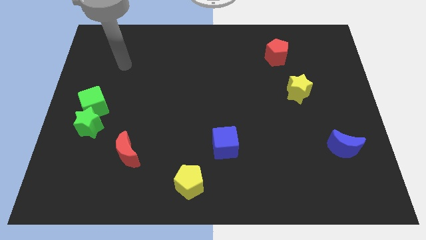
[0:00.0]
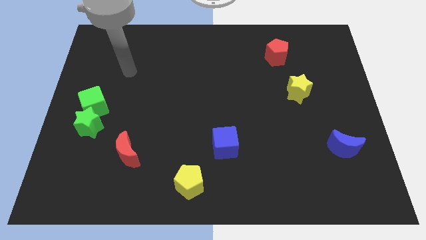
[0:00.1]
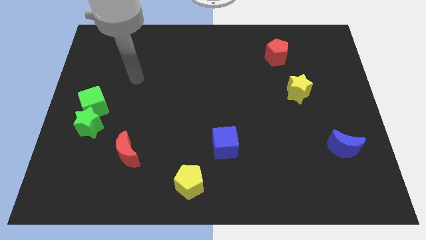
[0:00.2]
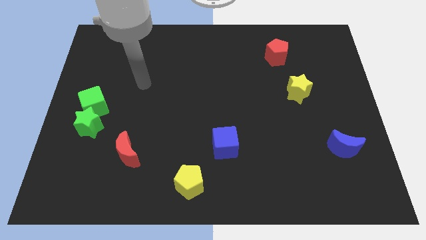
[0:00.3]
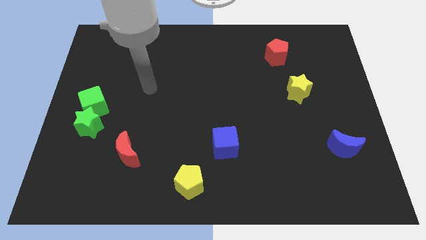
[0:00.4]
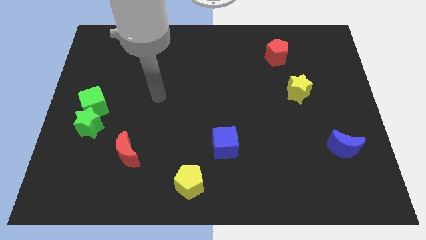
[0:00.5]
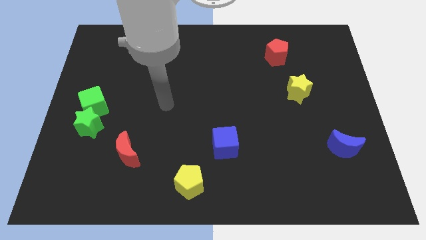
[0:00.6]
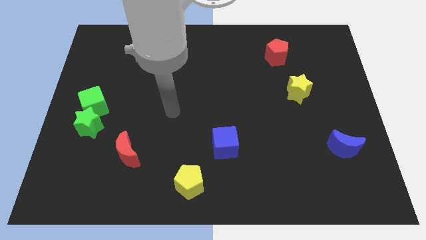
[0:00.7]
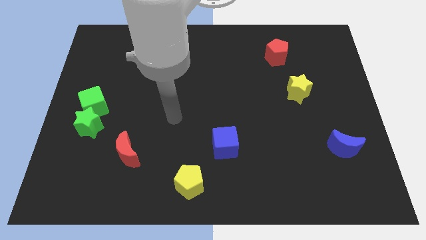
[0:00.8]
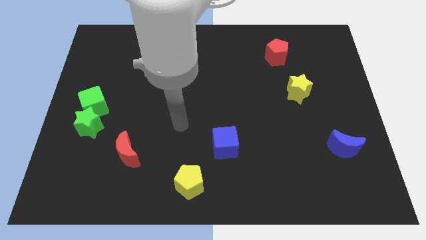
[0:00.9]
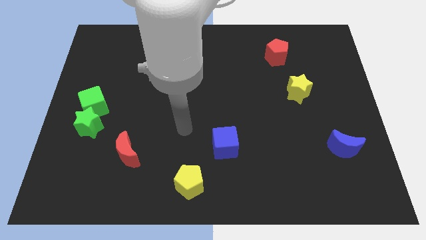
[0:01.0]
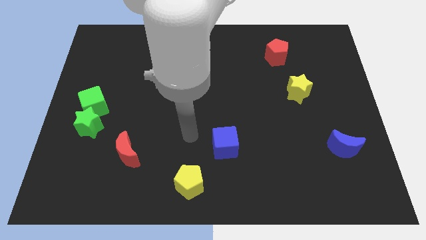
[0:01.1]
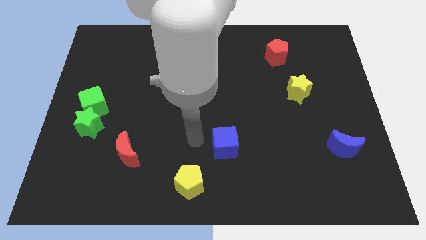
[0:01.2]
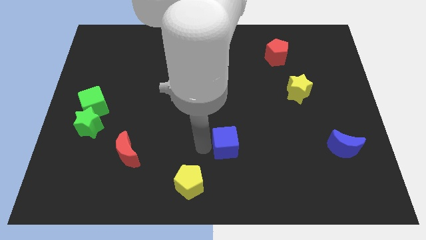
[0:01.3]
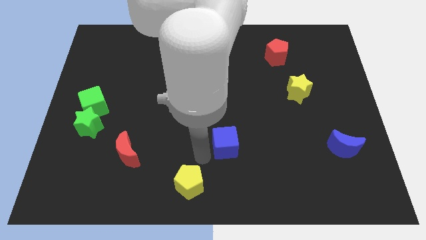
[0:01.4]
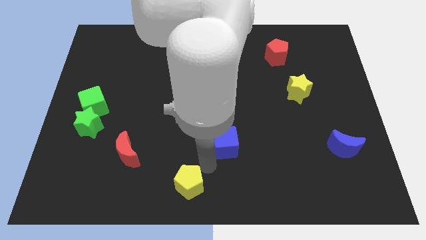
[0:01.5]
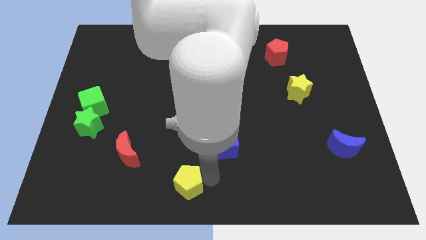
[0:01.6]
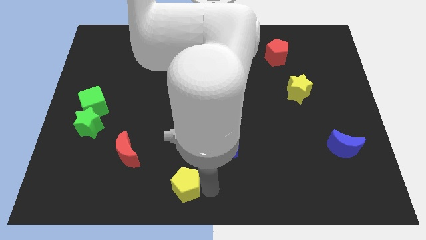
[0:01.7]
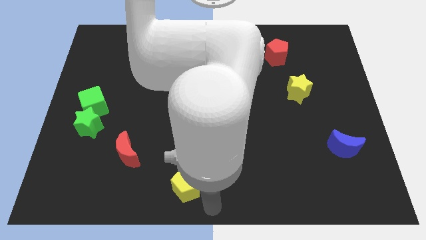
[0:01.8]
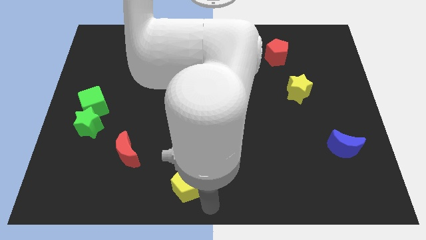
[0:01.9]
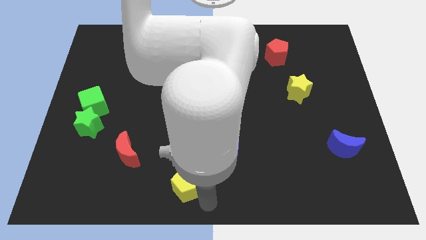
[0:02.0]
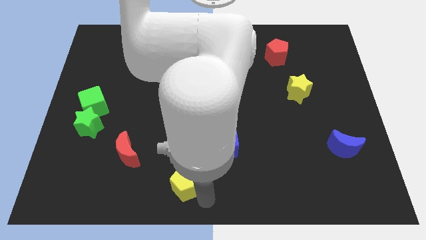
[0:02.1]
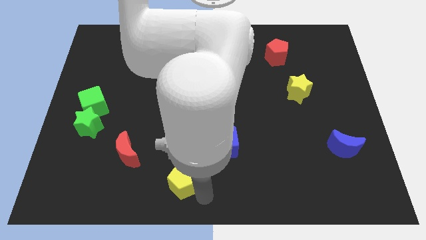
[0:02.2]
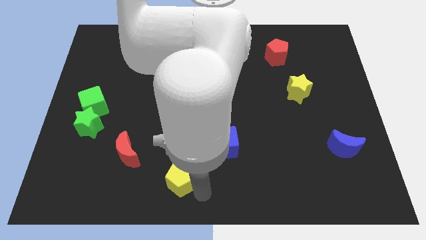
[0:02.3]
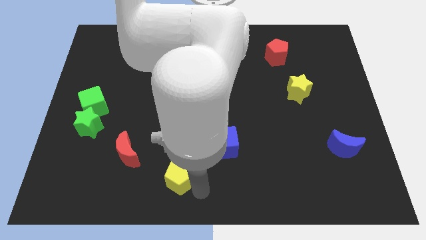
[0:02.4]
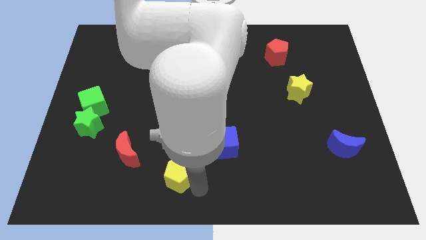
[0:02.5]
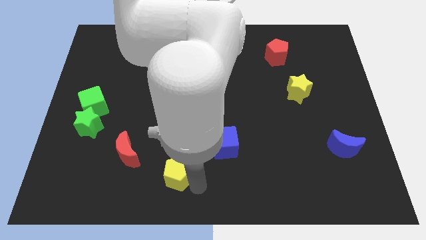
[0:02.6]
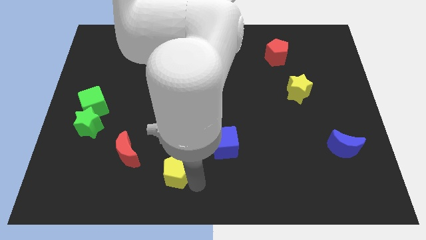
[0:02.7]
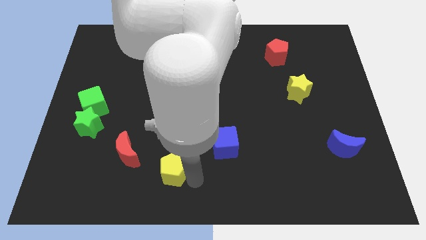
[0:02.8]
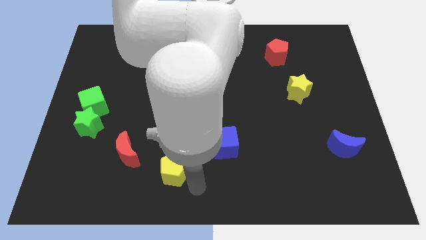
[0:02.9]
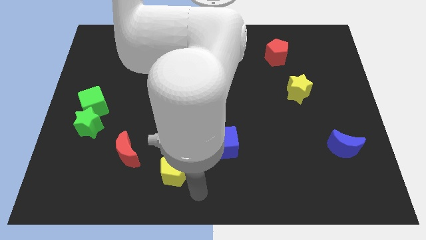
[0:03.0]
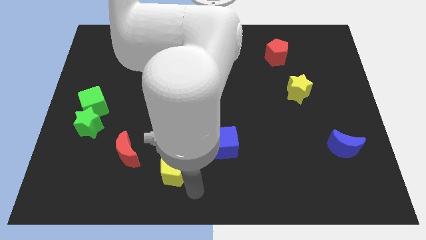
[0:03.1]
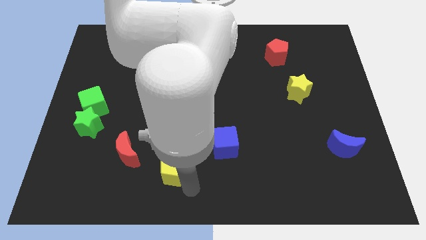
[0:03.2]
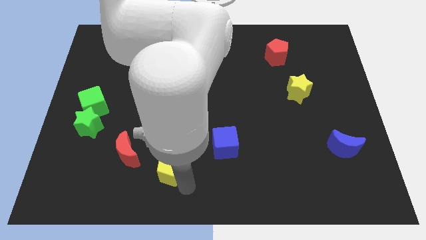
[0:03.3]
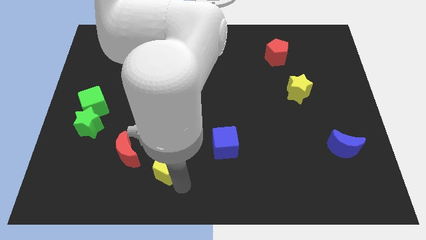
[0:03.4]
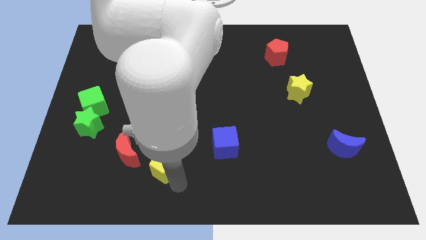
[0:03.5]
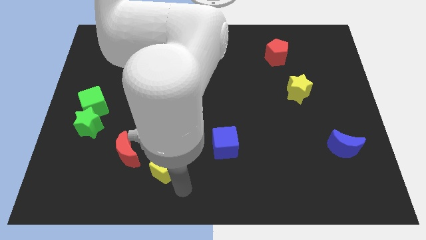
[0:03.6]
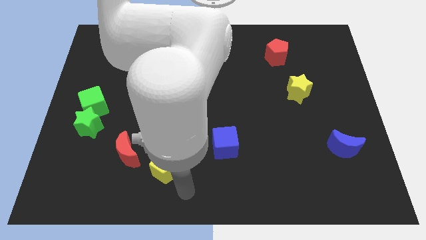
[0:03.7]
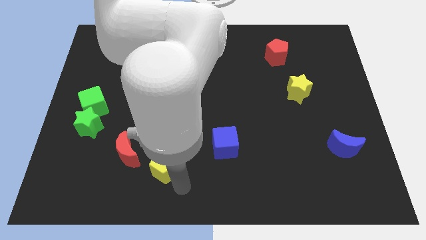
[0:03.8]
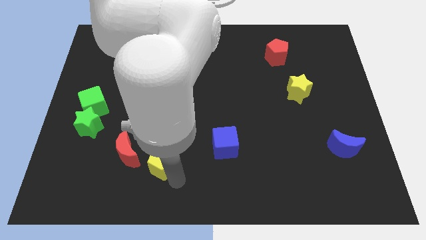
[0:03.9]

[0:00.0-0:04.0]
move the yellow pentagon a bit up and then left

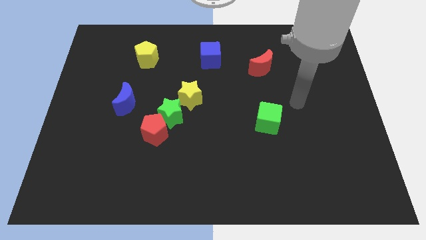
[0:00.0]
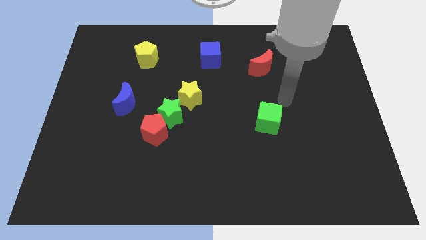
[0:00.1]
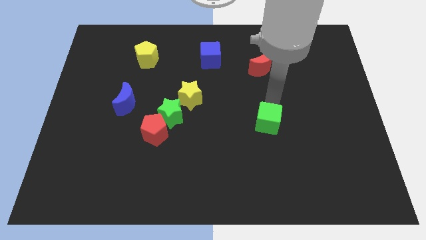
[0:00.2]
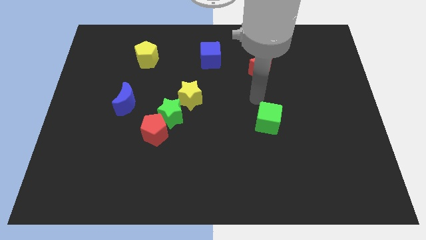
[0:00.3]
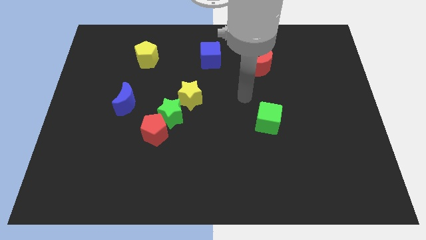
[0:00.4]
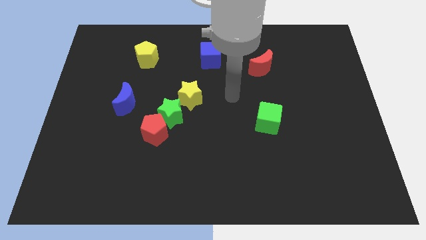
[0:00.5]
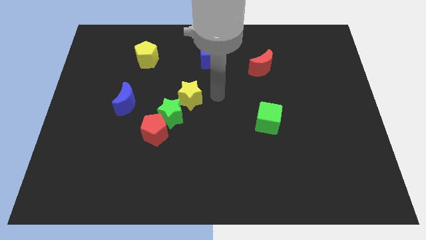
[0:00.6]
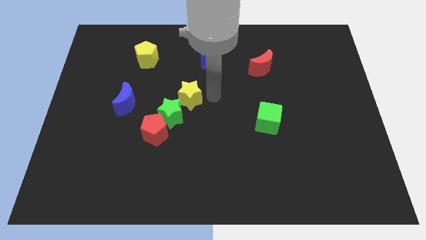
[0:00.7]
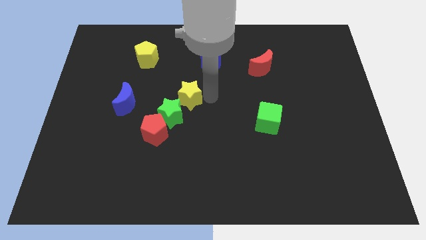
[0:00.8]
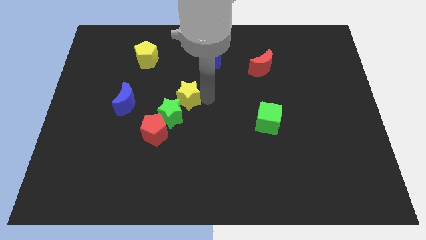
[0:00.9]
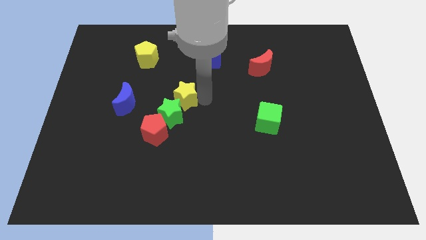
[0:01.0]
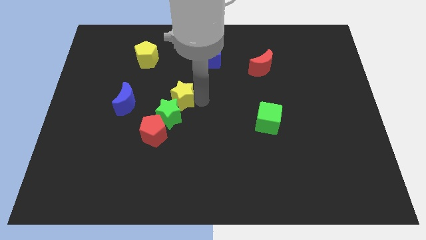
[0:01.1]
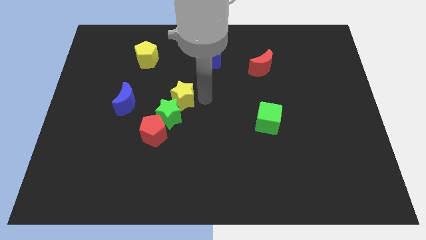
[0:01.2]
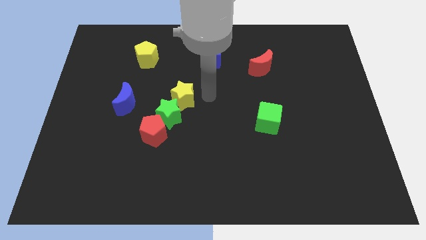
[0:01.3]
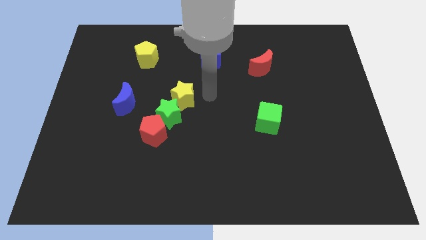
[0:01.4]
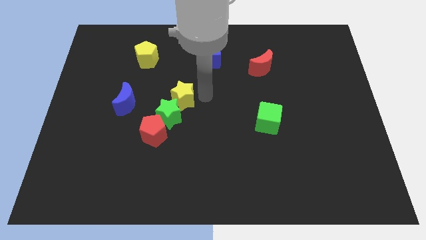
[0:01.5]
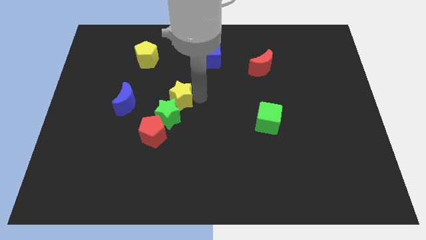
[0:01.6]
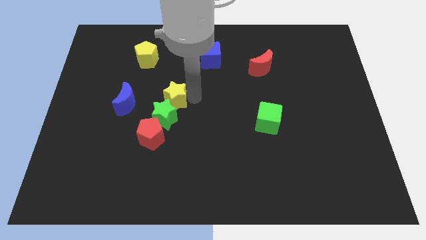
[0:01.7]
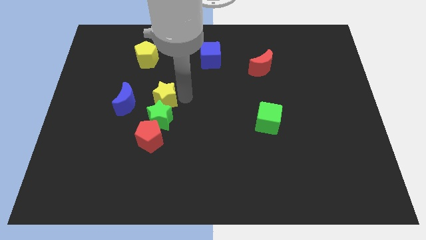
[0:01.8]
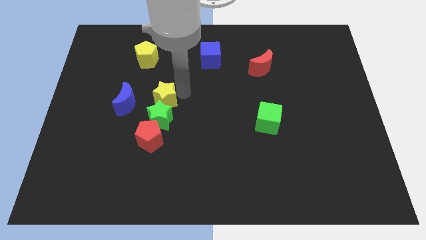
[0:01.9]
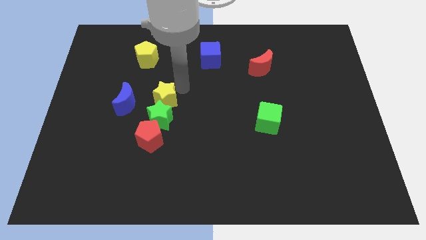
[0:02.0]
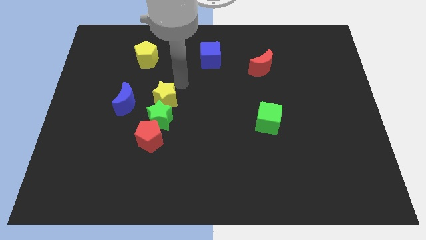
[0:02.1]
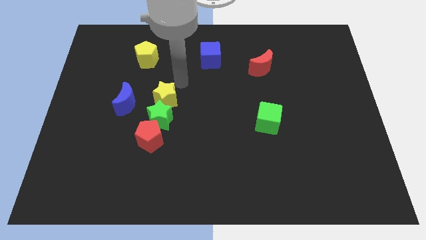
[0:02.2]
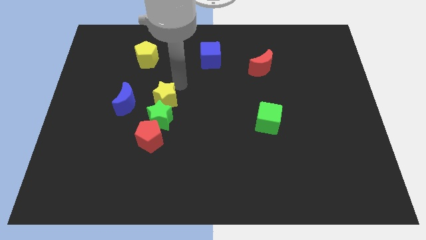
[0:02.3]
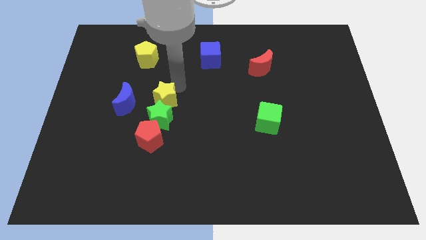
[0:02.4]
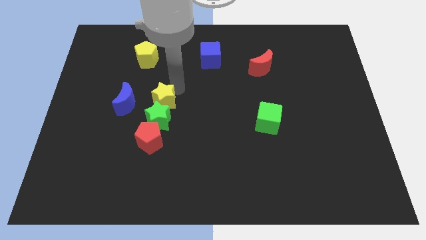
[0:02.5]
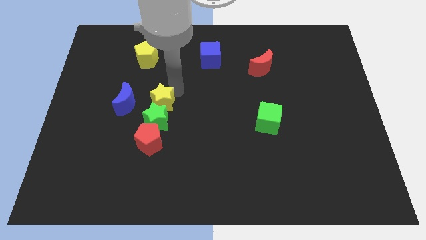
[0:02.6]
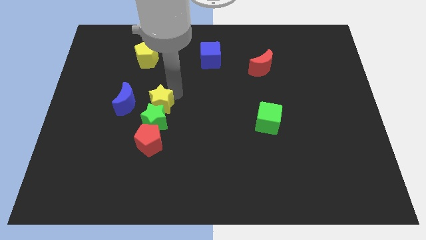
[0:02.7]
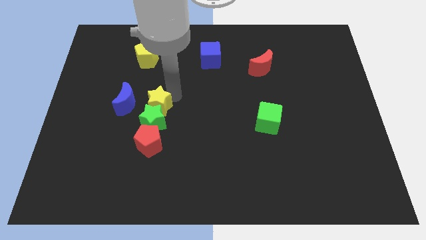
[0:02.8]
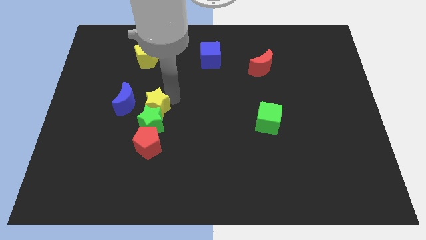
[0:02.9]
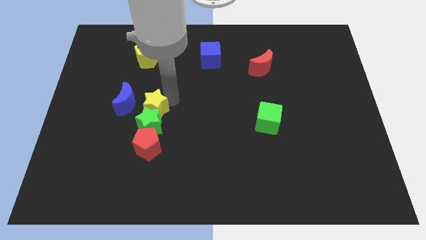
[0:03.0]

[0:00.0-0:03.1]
push the yellow star a little bit down and then left

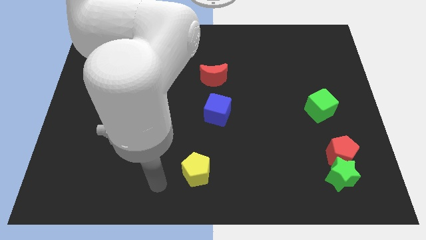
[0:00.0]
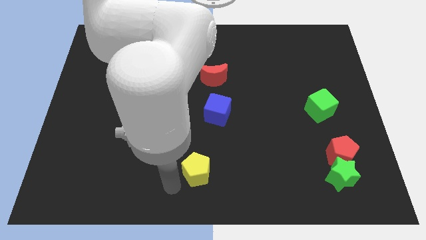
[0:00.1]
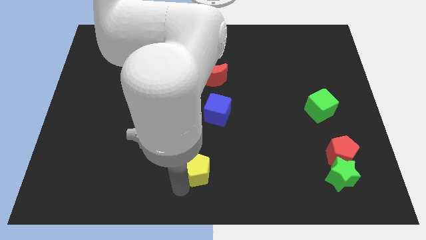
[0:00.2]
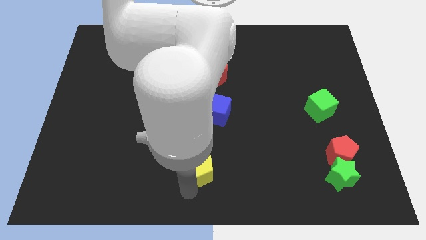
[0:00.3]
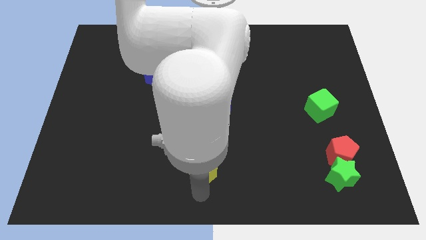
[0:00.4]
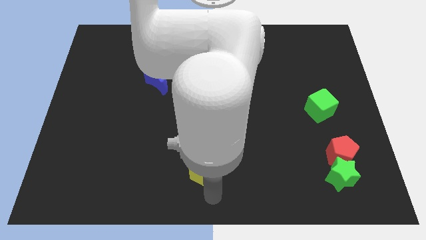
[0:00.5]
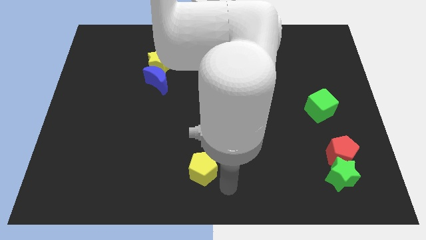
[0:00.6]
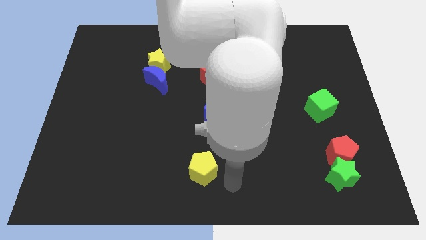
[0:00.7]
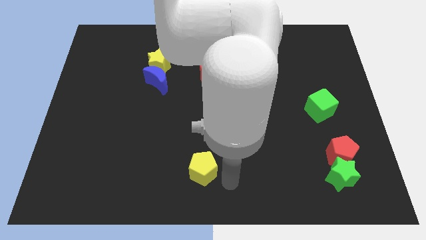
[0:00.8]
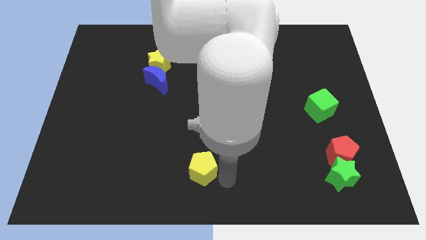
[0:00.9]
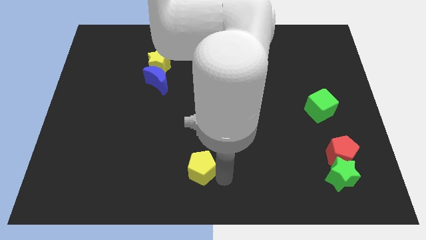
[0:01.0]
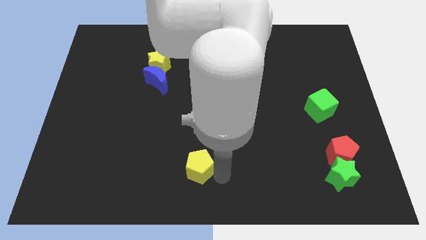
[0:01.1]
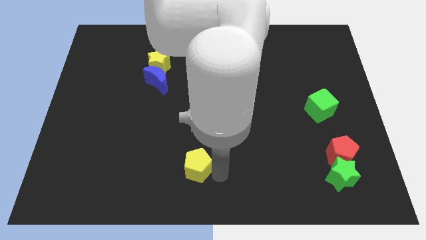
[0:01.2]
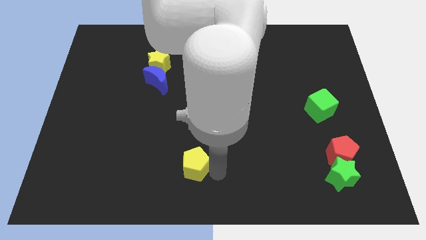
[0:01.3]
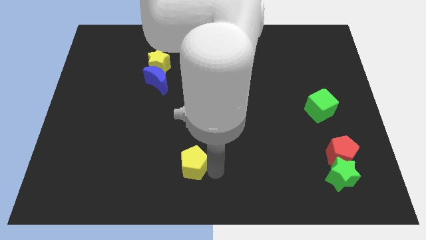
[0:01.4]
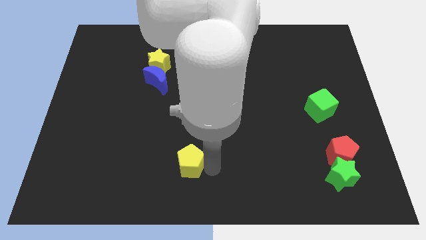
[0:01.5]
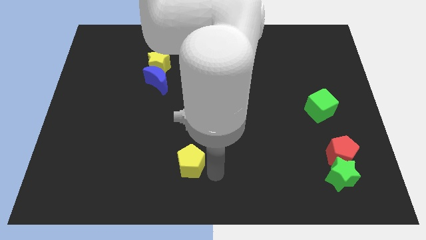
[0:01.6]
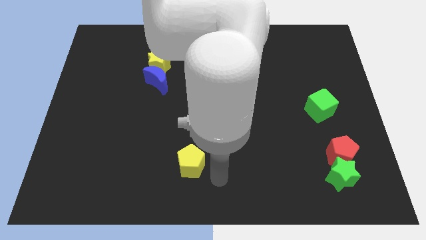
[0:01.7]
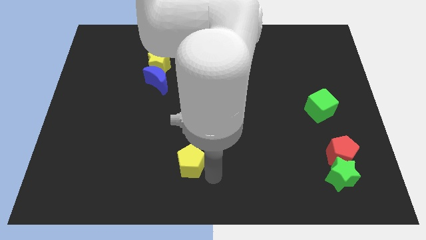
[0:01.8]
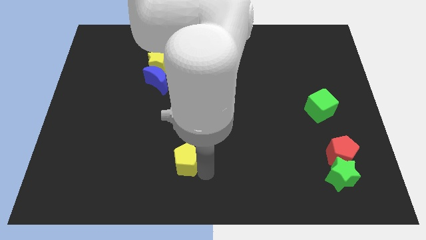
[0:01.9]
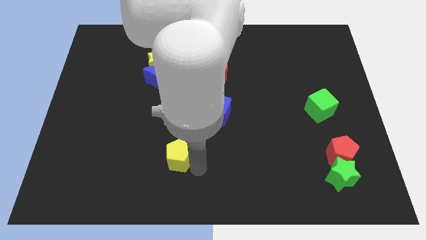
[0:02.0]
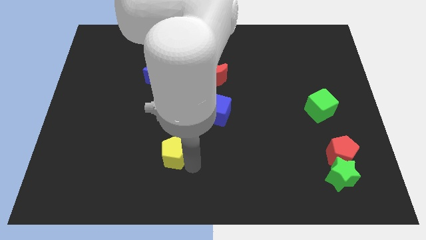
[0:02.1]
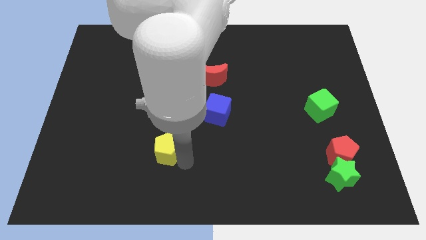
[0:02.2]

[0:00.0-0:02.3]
push the yellow pentagon upwards and to the left slightly
